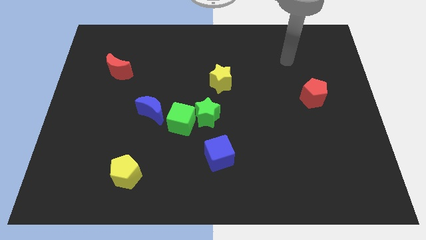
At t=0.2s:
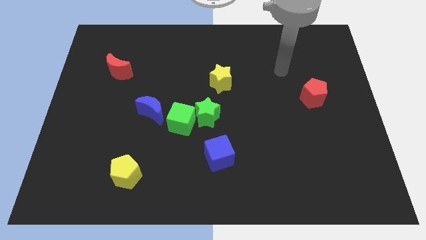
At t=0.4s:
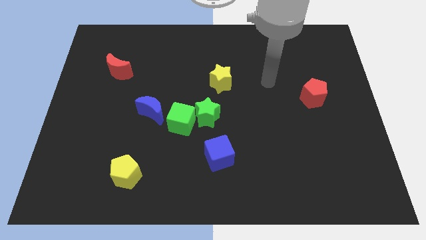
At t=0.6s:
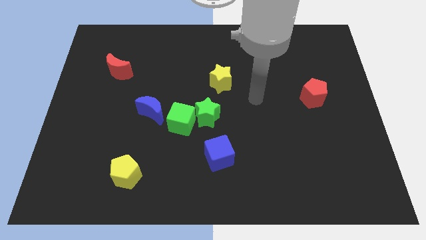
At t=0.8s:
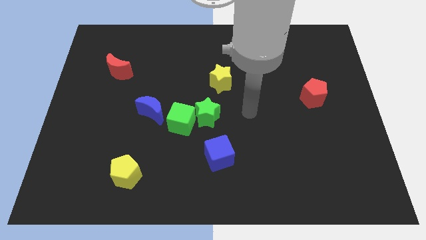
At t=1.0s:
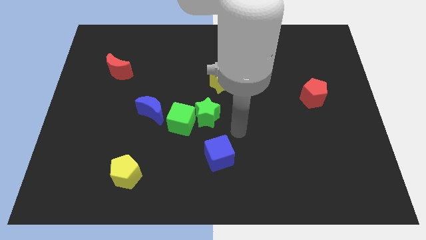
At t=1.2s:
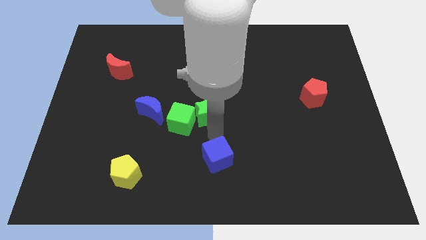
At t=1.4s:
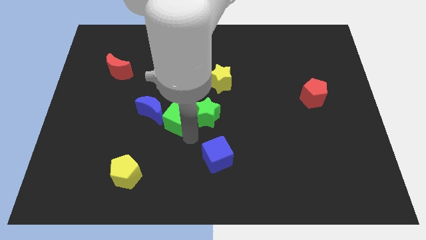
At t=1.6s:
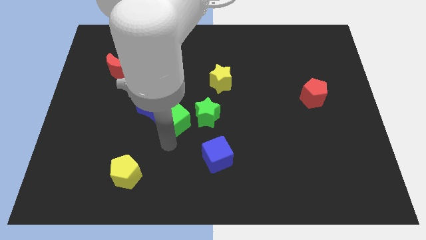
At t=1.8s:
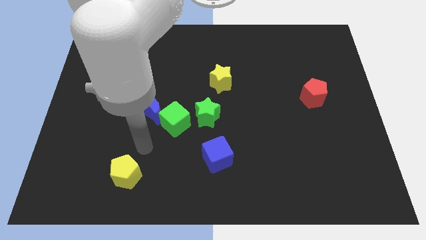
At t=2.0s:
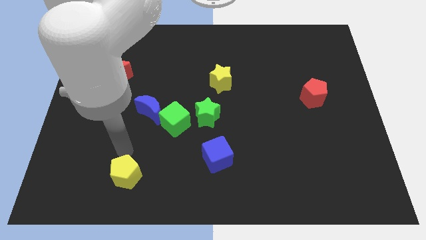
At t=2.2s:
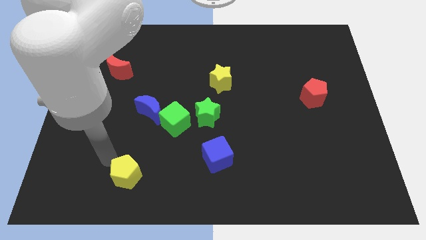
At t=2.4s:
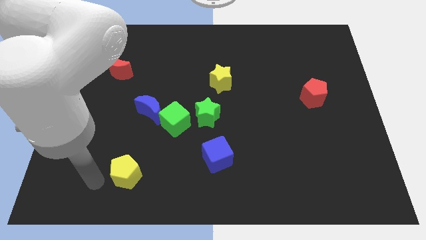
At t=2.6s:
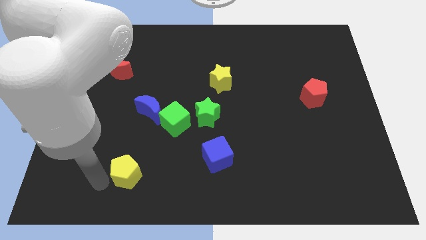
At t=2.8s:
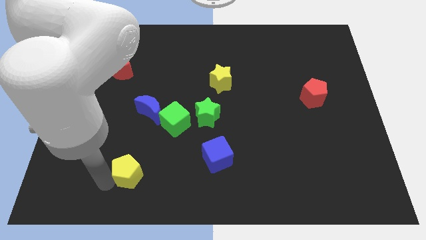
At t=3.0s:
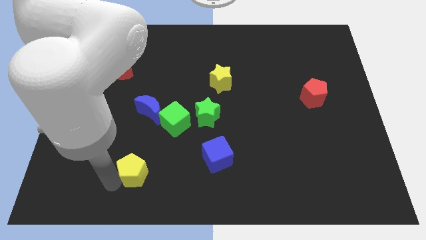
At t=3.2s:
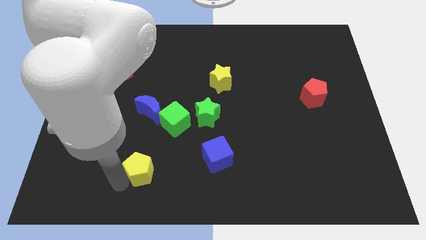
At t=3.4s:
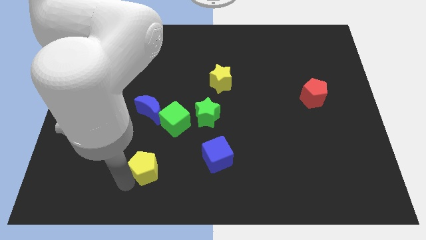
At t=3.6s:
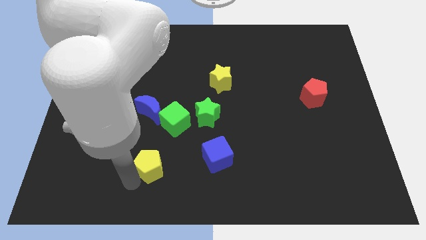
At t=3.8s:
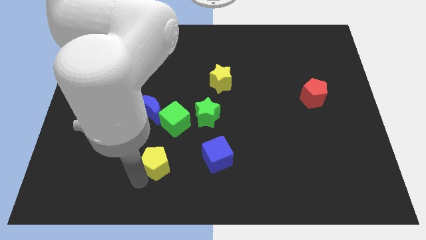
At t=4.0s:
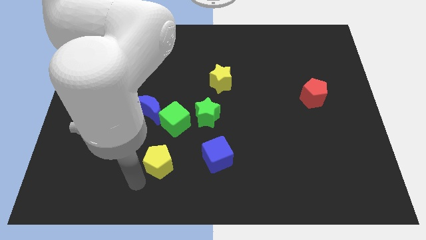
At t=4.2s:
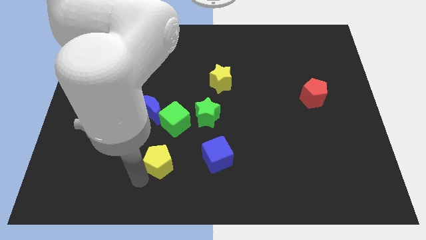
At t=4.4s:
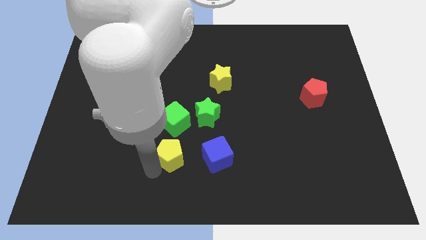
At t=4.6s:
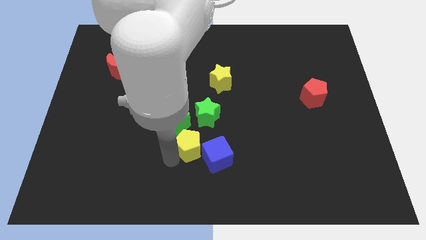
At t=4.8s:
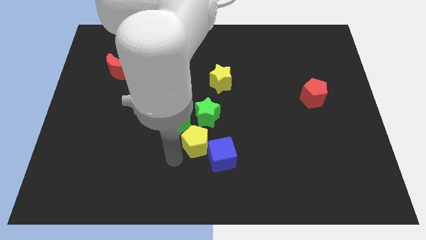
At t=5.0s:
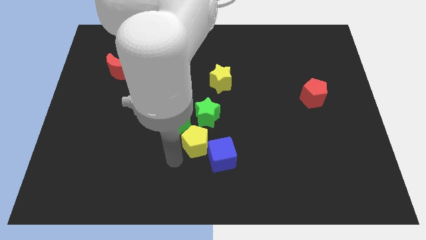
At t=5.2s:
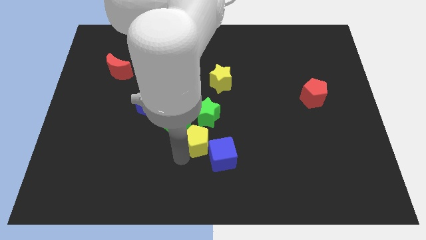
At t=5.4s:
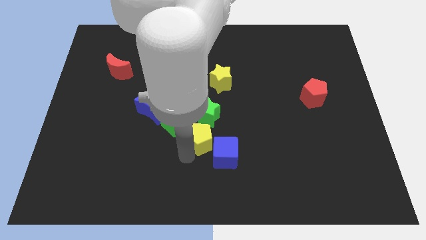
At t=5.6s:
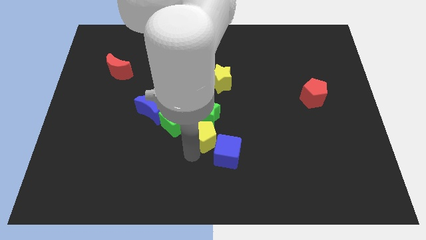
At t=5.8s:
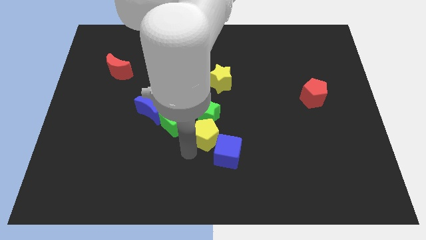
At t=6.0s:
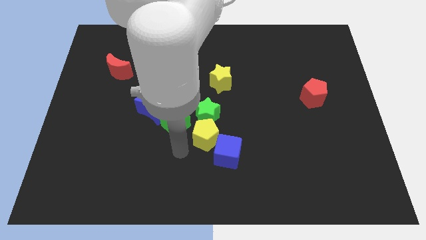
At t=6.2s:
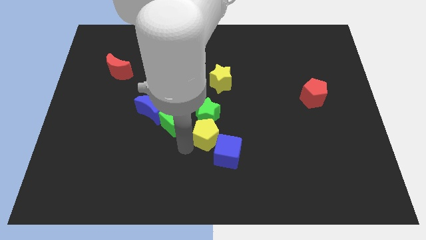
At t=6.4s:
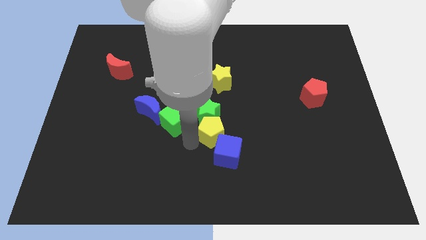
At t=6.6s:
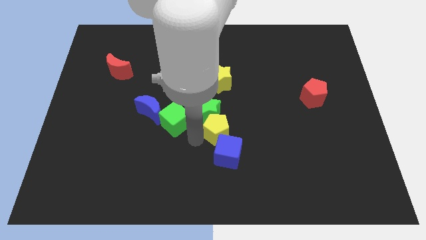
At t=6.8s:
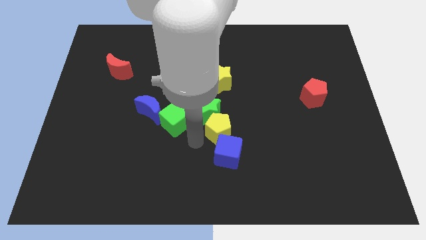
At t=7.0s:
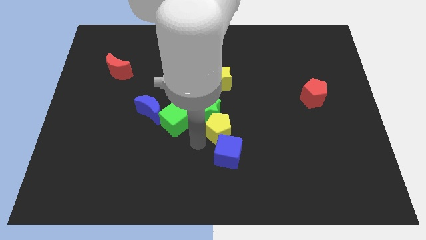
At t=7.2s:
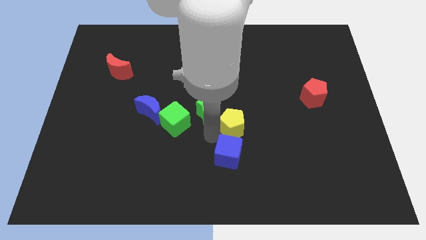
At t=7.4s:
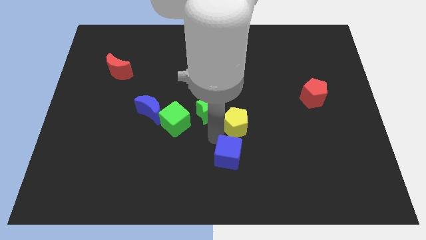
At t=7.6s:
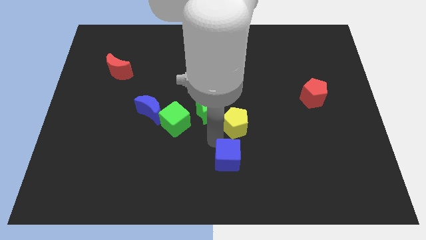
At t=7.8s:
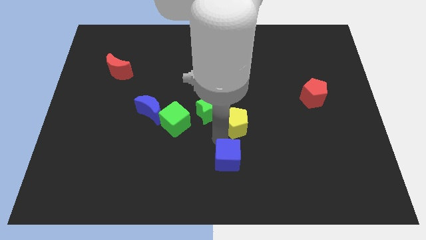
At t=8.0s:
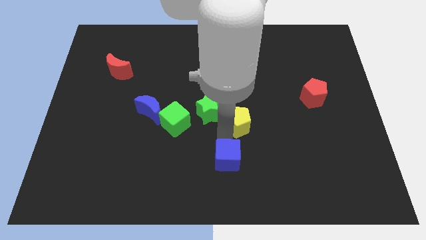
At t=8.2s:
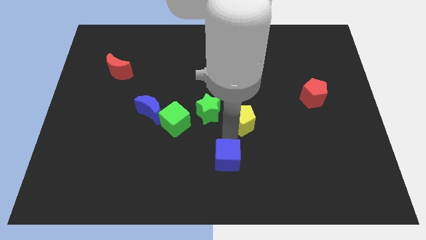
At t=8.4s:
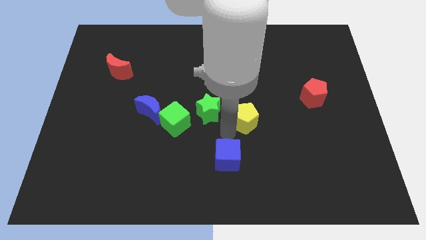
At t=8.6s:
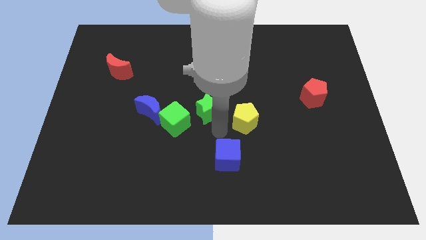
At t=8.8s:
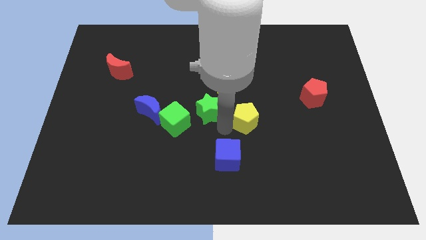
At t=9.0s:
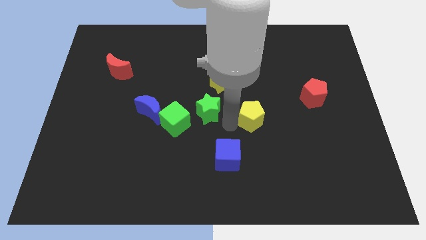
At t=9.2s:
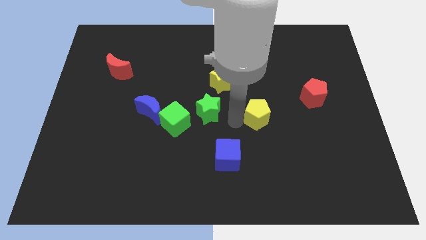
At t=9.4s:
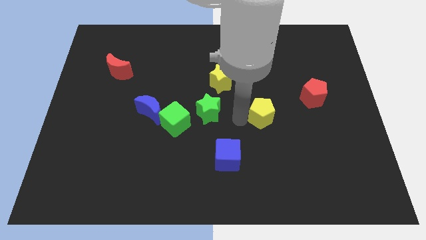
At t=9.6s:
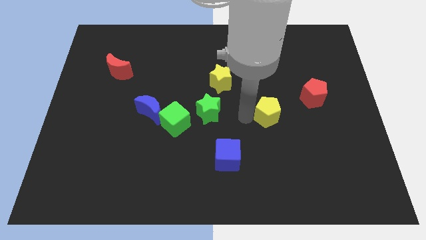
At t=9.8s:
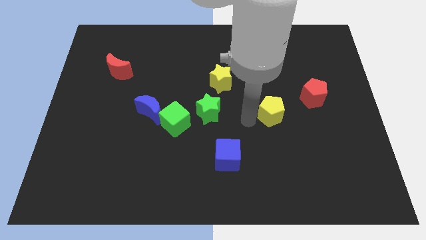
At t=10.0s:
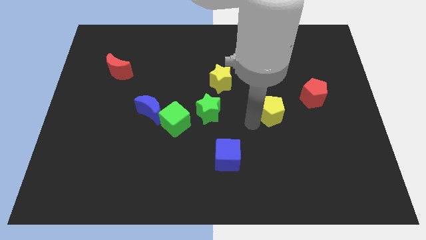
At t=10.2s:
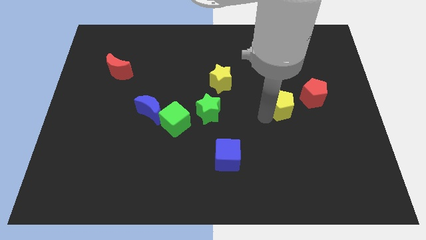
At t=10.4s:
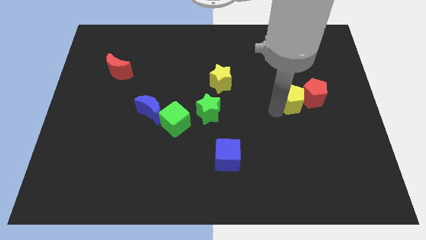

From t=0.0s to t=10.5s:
put the yellow pentagon towards the red pentagon

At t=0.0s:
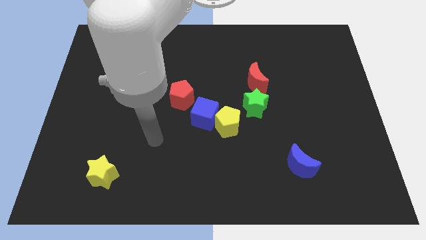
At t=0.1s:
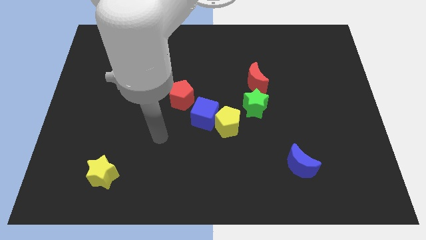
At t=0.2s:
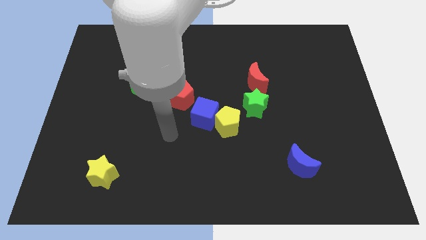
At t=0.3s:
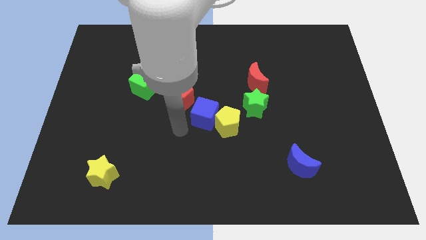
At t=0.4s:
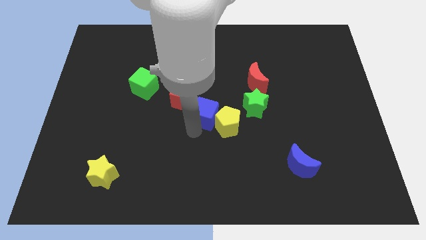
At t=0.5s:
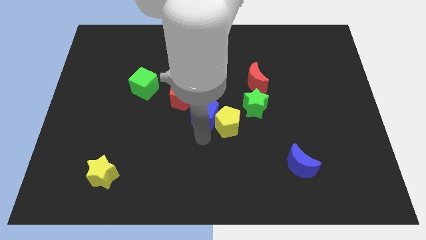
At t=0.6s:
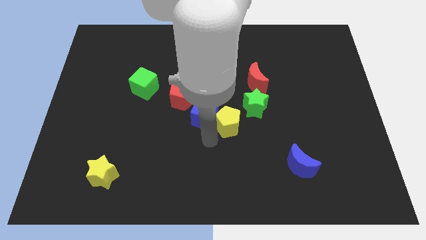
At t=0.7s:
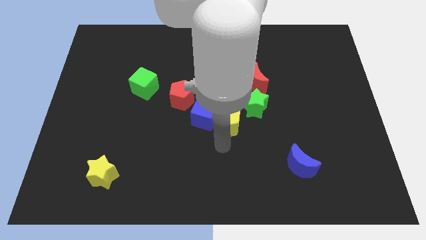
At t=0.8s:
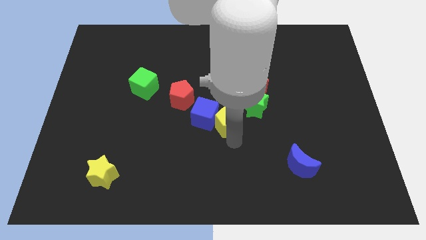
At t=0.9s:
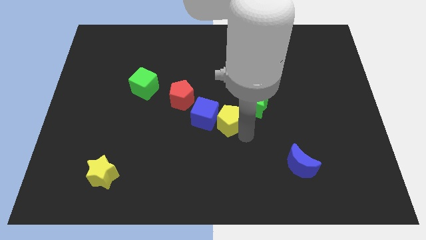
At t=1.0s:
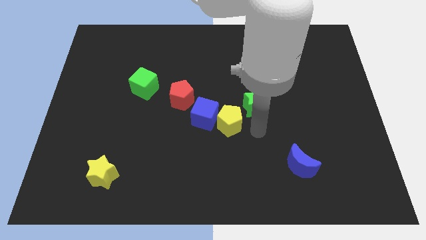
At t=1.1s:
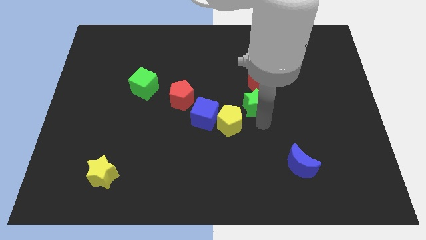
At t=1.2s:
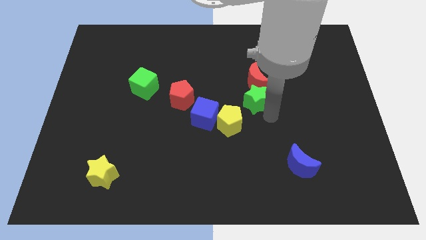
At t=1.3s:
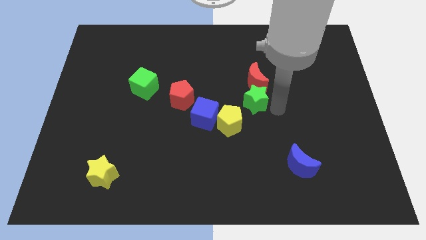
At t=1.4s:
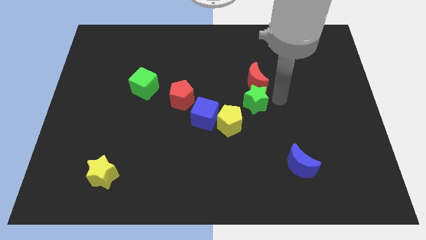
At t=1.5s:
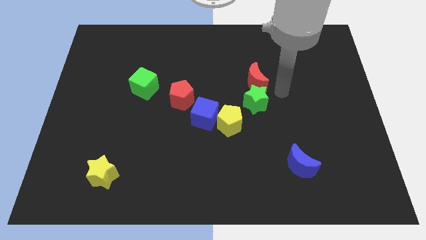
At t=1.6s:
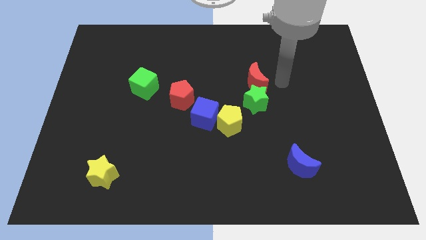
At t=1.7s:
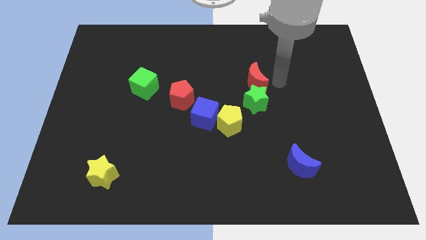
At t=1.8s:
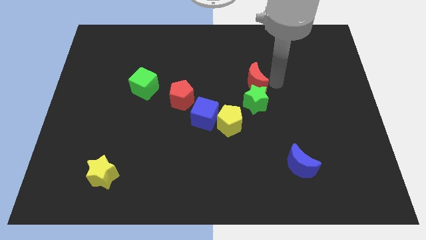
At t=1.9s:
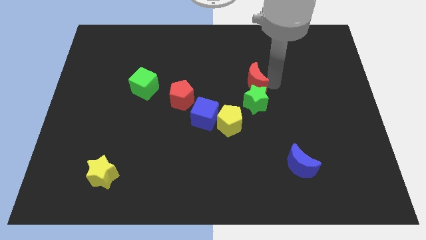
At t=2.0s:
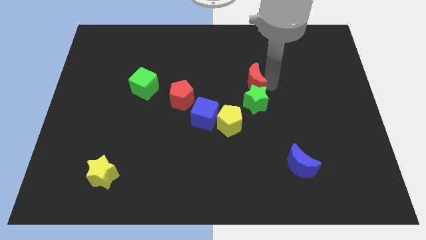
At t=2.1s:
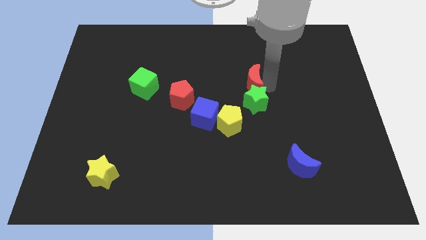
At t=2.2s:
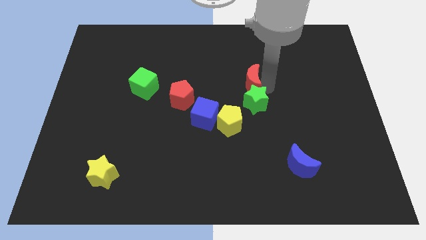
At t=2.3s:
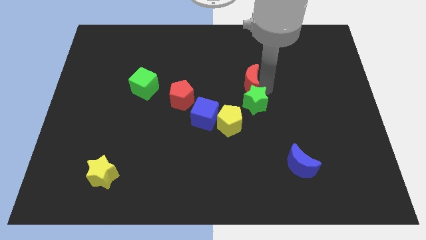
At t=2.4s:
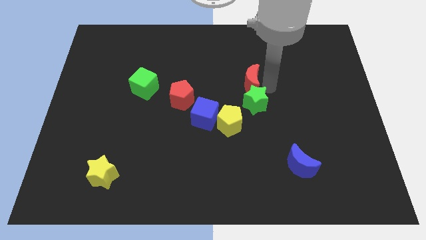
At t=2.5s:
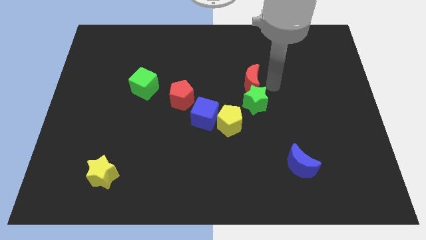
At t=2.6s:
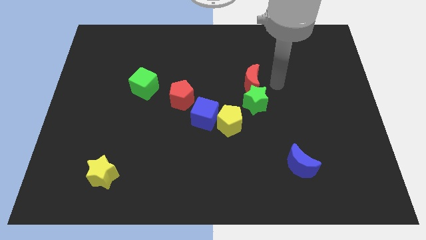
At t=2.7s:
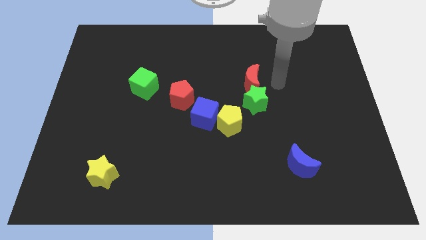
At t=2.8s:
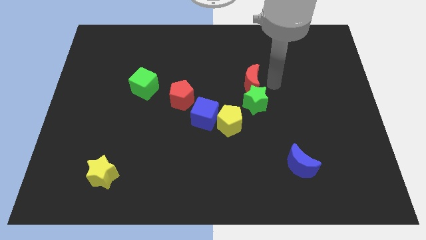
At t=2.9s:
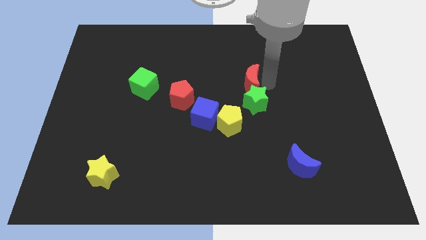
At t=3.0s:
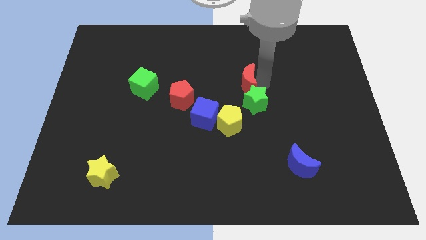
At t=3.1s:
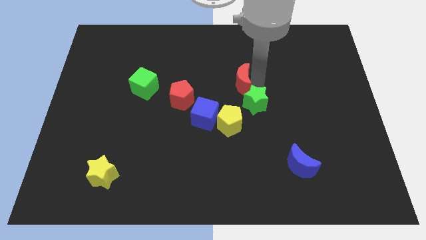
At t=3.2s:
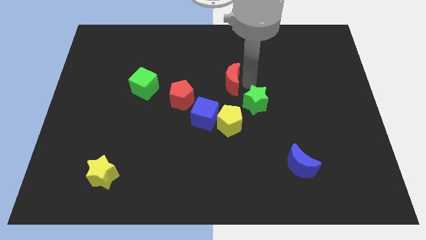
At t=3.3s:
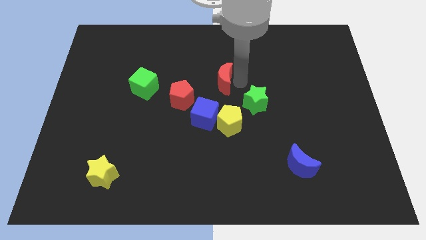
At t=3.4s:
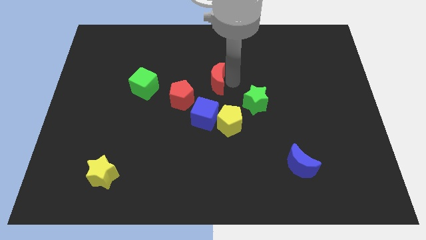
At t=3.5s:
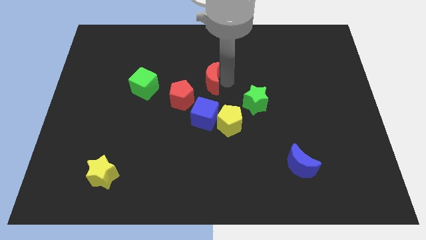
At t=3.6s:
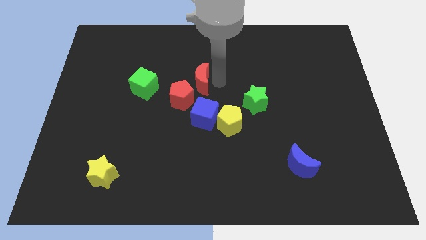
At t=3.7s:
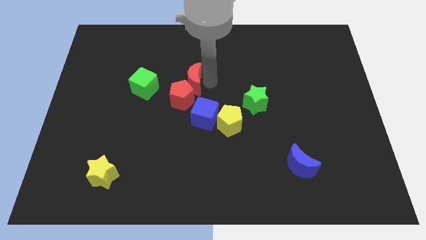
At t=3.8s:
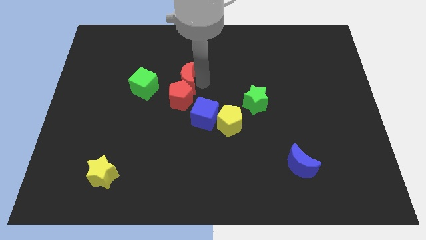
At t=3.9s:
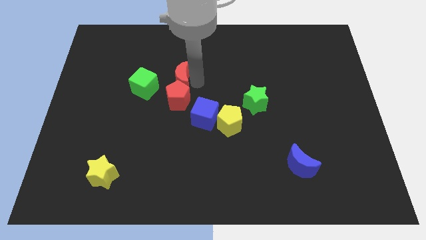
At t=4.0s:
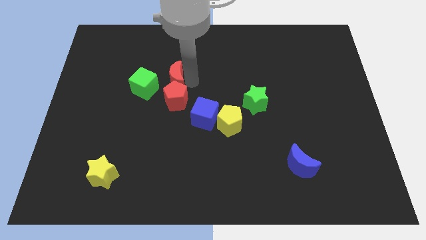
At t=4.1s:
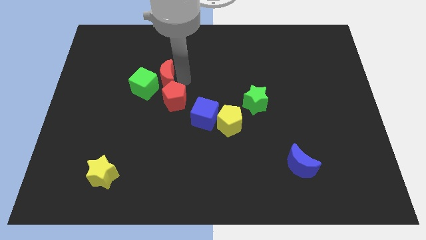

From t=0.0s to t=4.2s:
put the red moon close to the green cube
